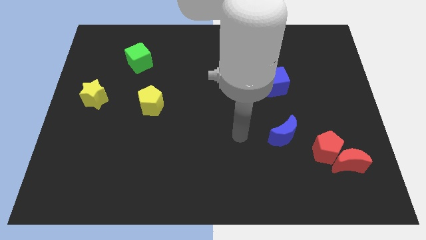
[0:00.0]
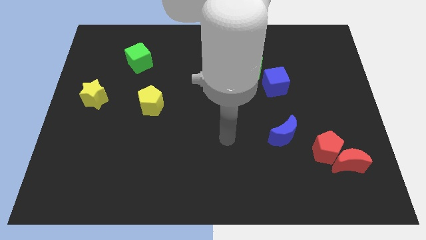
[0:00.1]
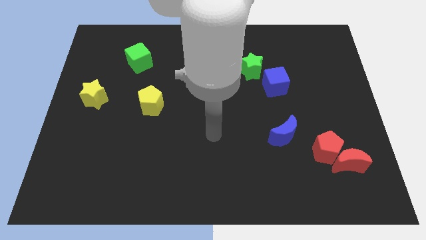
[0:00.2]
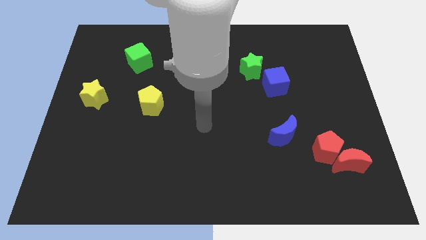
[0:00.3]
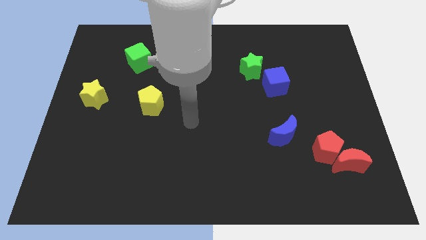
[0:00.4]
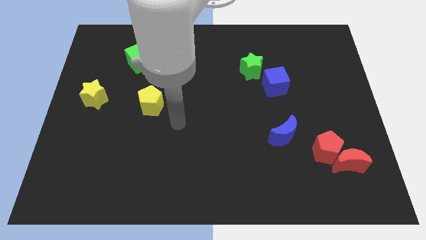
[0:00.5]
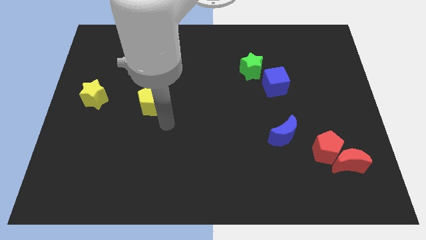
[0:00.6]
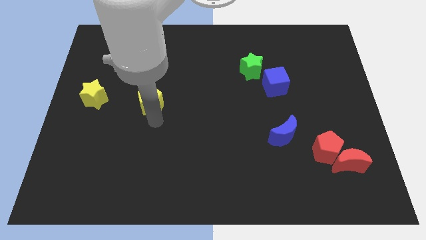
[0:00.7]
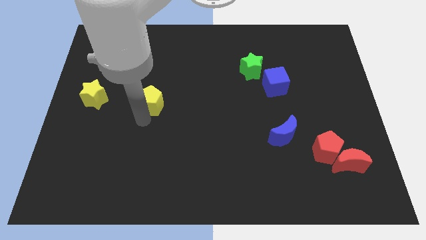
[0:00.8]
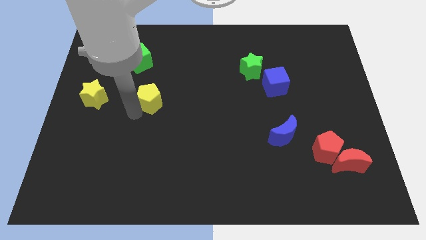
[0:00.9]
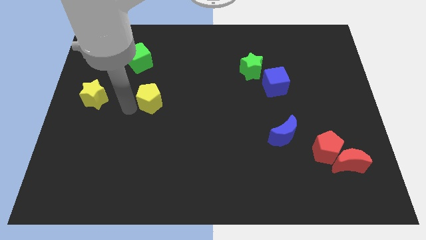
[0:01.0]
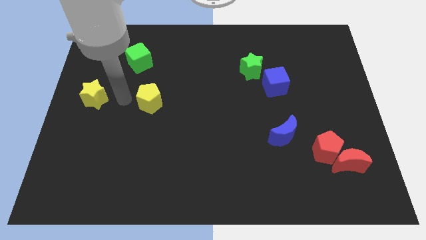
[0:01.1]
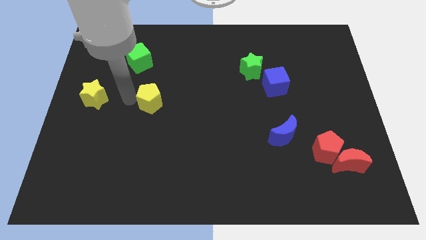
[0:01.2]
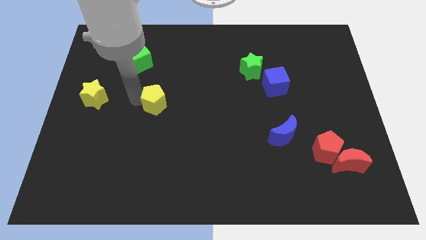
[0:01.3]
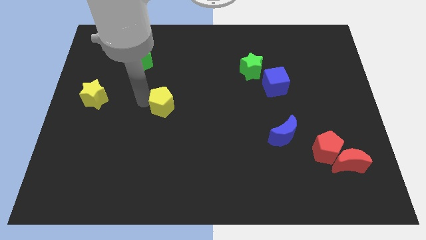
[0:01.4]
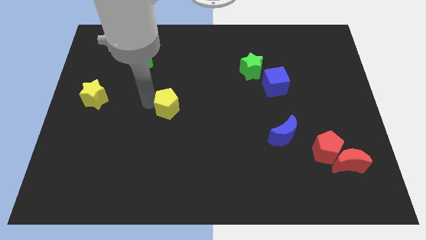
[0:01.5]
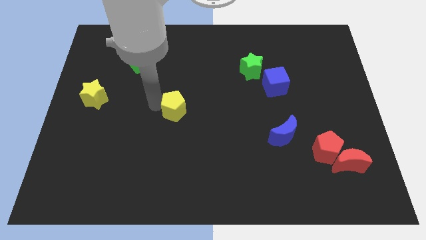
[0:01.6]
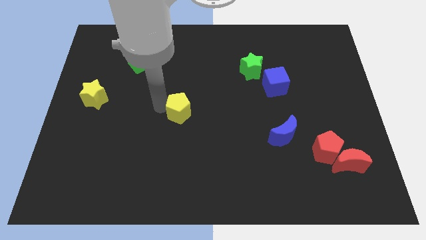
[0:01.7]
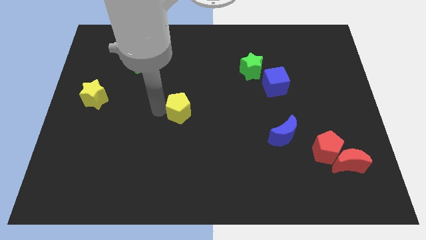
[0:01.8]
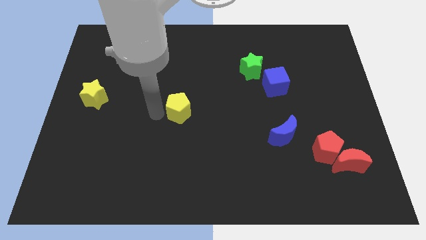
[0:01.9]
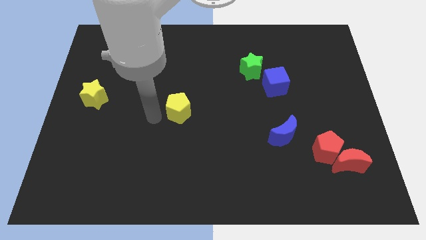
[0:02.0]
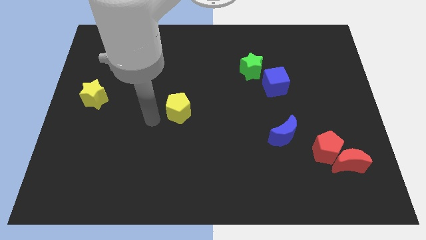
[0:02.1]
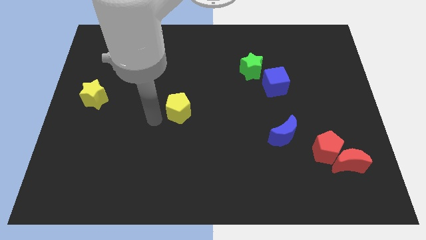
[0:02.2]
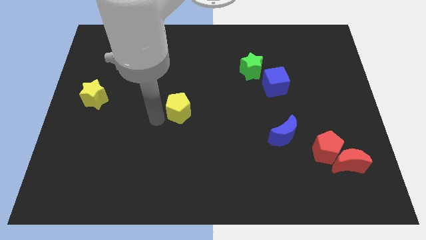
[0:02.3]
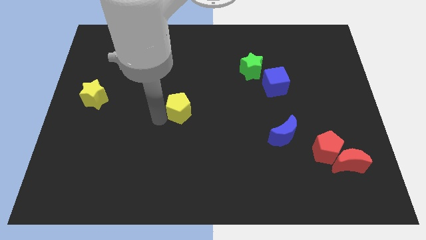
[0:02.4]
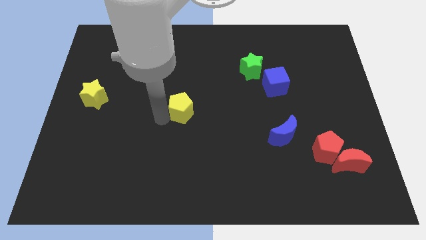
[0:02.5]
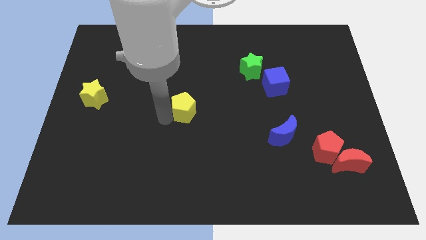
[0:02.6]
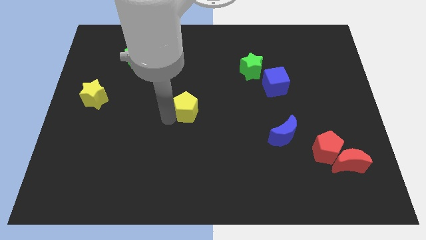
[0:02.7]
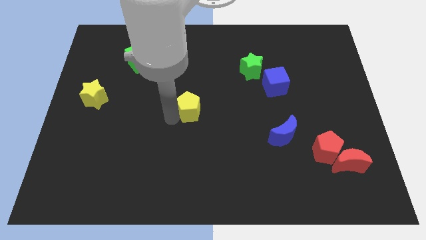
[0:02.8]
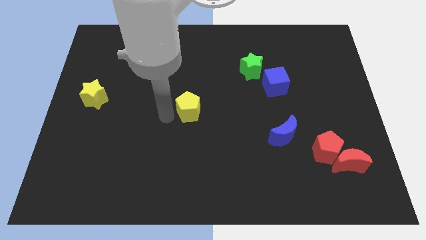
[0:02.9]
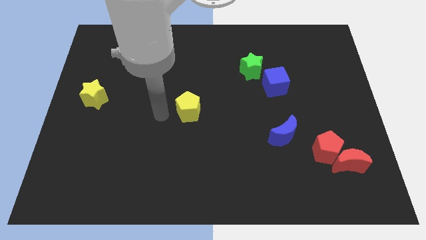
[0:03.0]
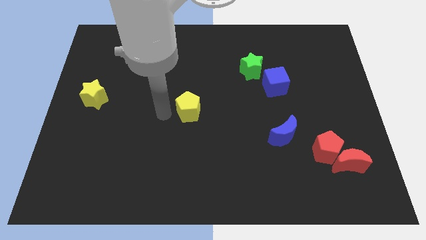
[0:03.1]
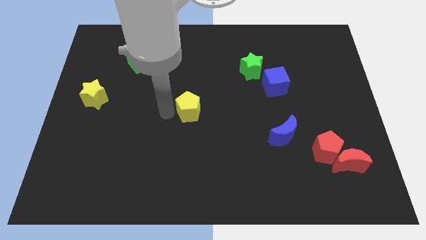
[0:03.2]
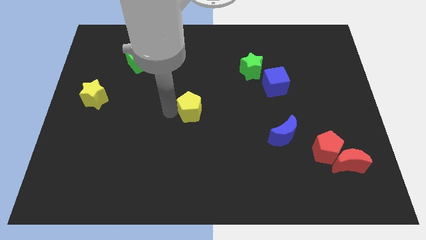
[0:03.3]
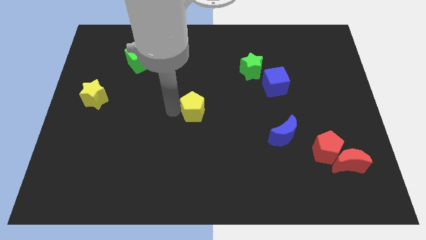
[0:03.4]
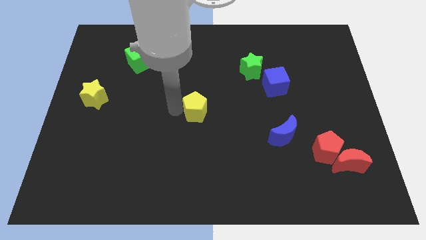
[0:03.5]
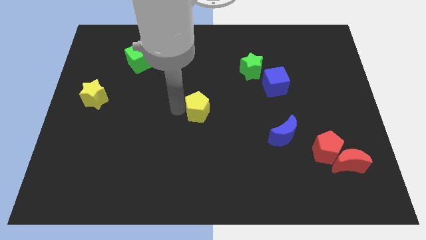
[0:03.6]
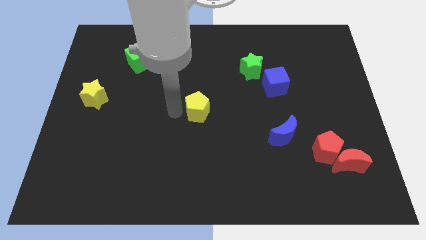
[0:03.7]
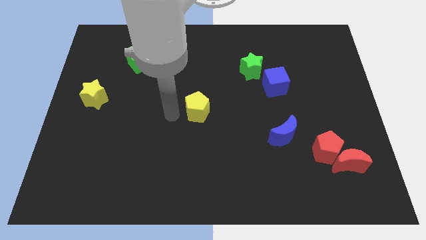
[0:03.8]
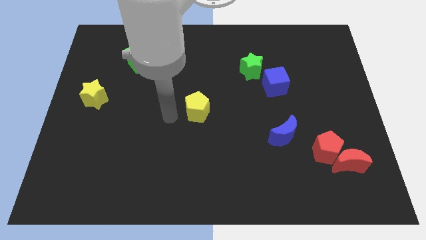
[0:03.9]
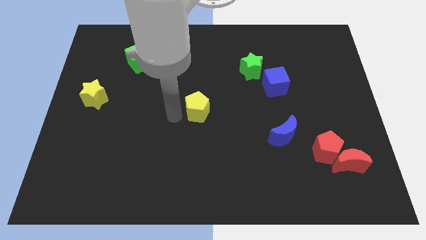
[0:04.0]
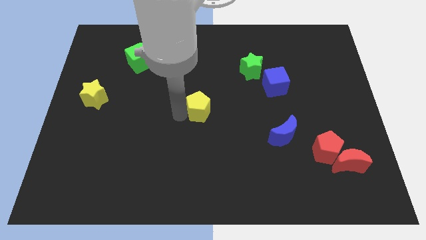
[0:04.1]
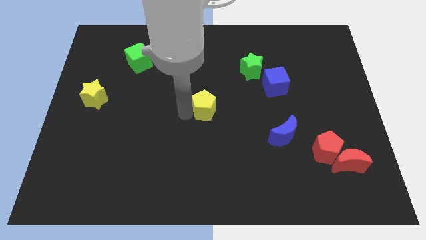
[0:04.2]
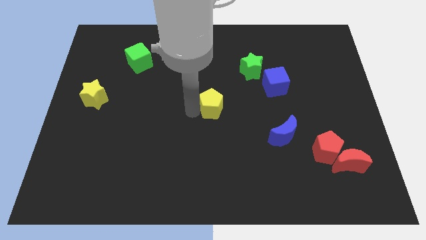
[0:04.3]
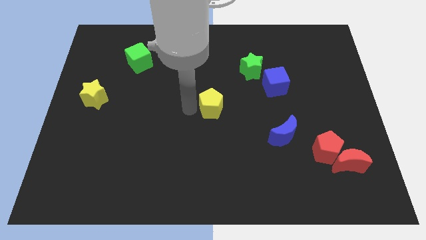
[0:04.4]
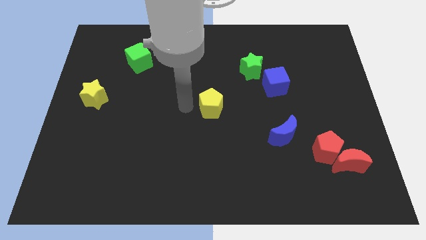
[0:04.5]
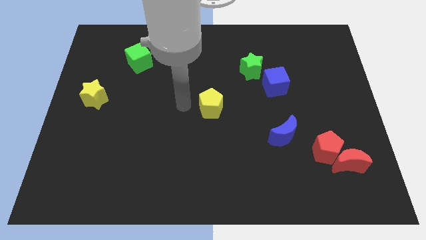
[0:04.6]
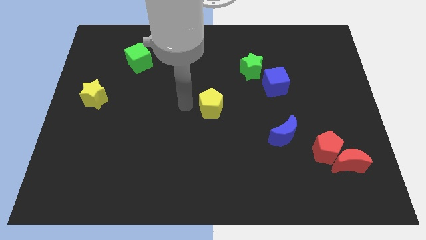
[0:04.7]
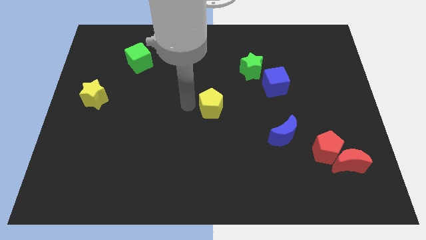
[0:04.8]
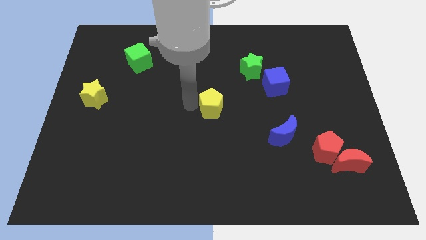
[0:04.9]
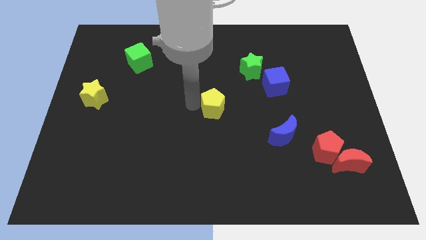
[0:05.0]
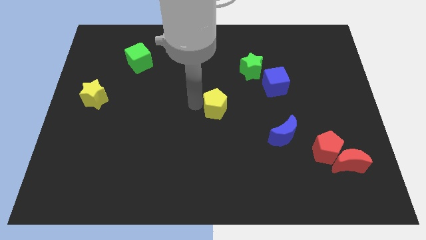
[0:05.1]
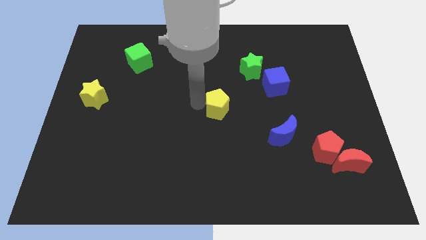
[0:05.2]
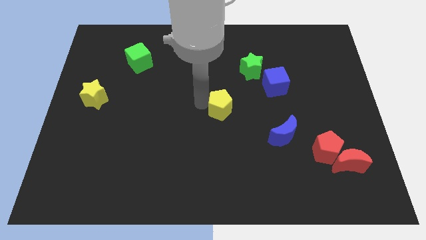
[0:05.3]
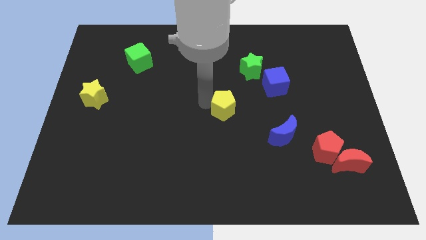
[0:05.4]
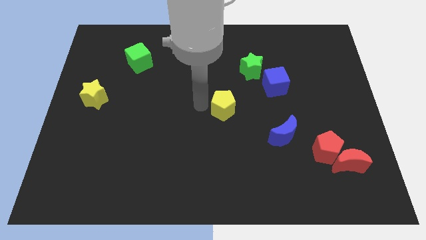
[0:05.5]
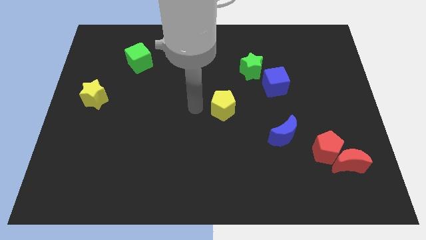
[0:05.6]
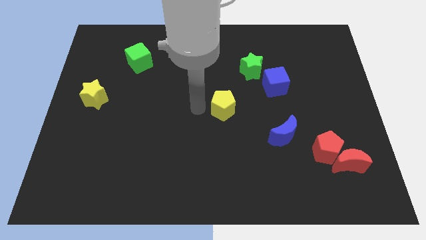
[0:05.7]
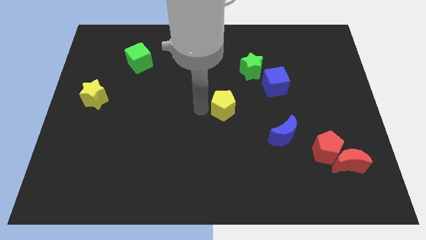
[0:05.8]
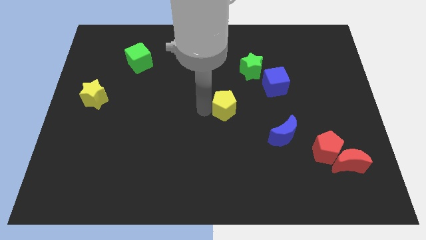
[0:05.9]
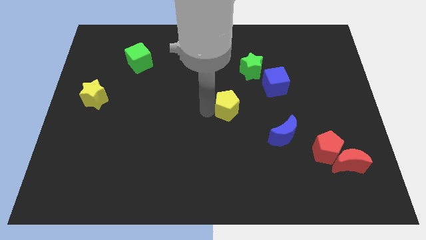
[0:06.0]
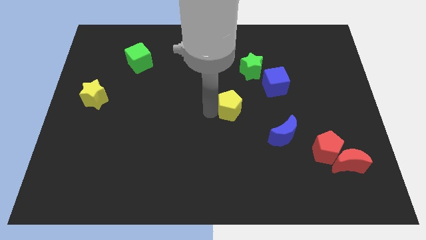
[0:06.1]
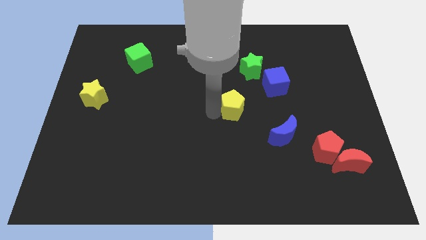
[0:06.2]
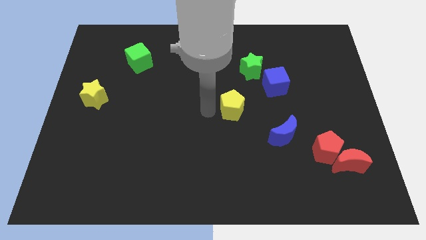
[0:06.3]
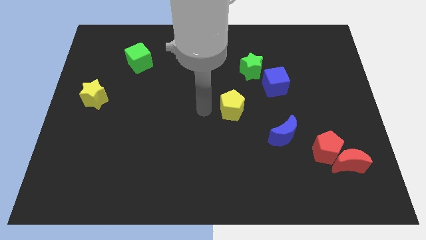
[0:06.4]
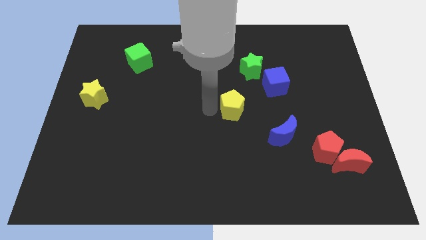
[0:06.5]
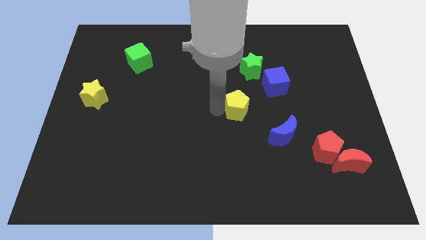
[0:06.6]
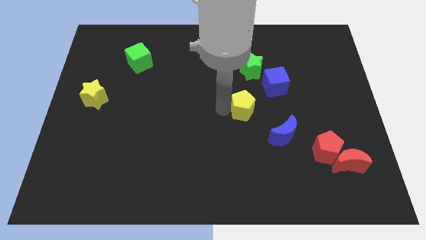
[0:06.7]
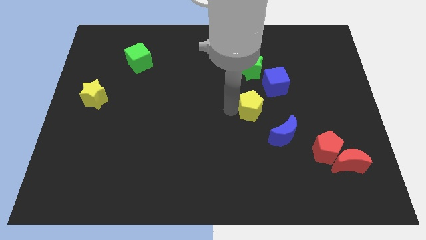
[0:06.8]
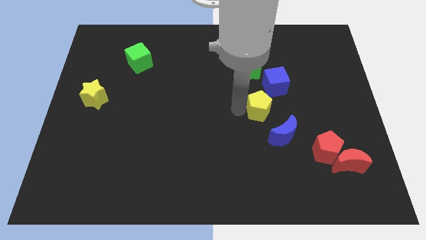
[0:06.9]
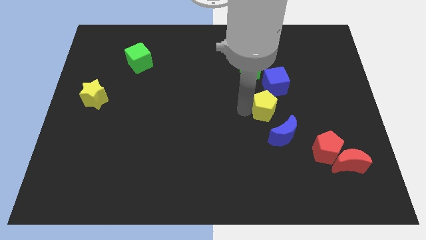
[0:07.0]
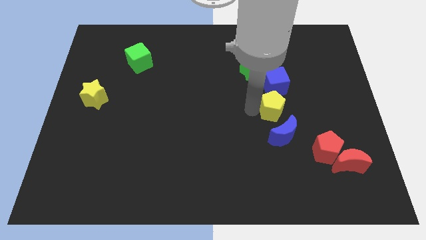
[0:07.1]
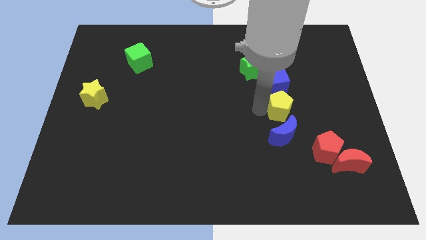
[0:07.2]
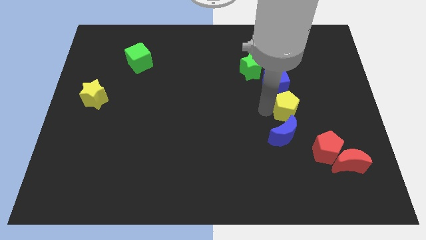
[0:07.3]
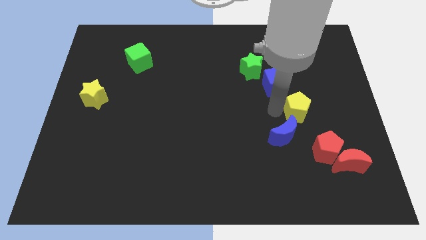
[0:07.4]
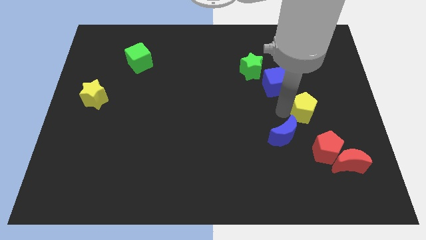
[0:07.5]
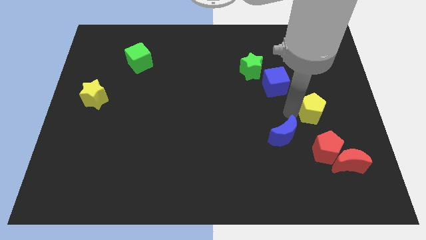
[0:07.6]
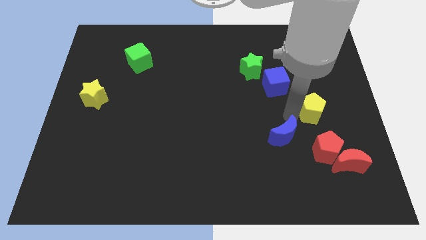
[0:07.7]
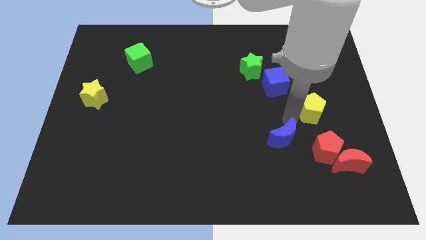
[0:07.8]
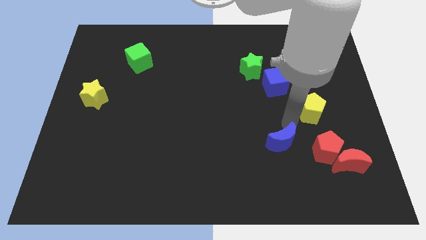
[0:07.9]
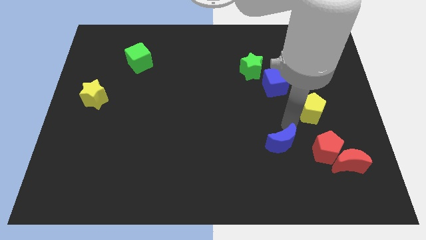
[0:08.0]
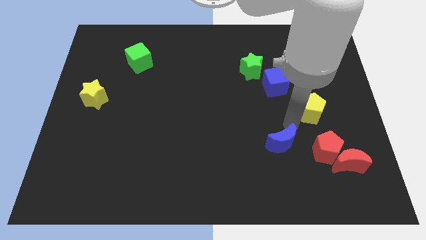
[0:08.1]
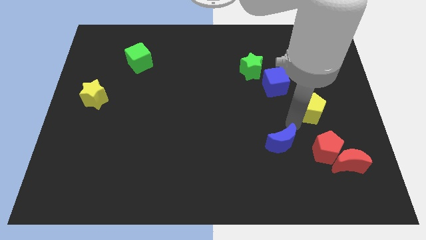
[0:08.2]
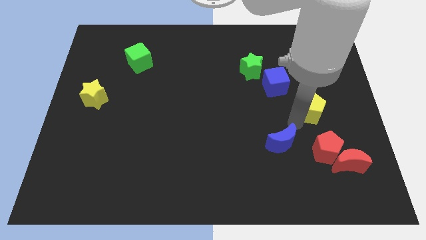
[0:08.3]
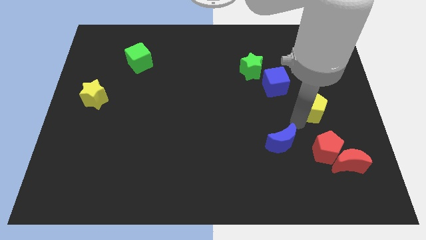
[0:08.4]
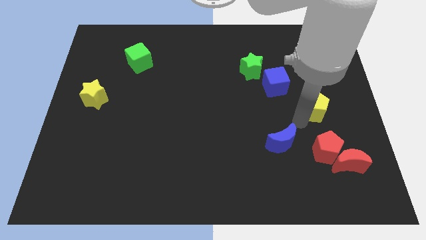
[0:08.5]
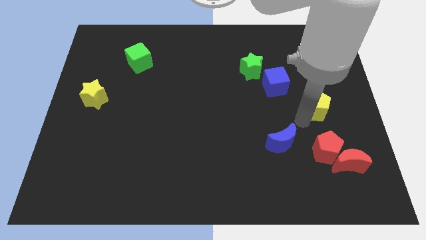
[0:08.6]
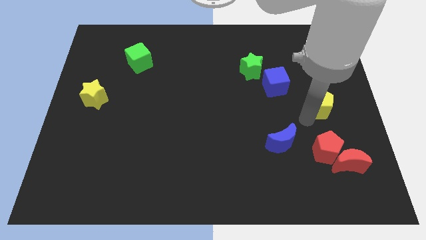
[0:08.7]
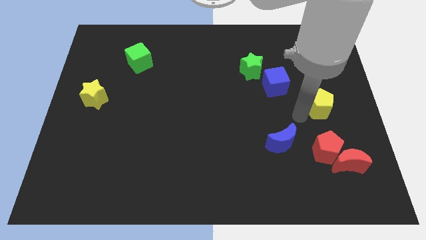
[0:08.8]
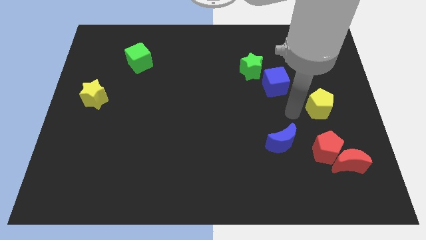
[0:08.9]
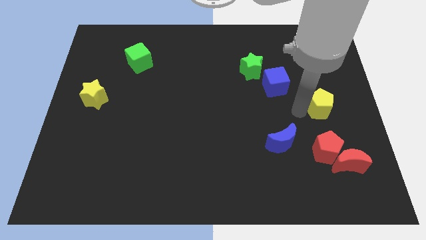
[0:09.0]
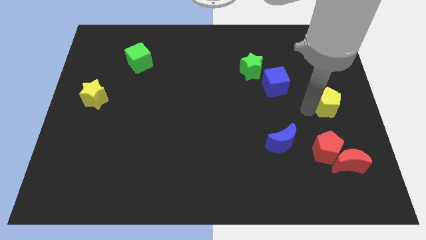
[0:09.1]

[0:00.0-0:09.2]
push the yellow pentagon to the right side of the board
